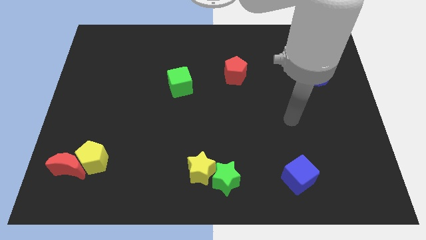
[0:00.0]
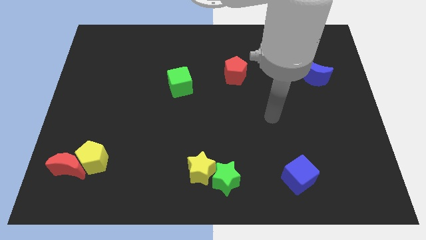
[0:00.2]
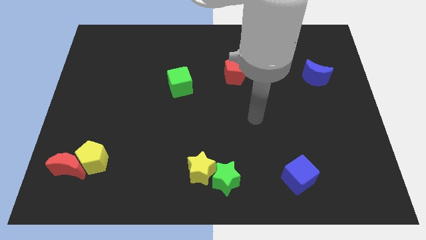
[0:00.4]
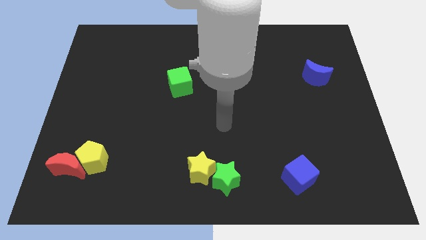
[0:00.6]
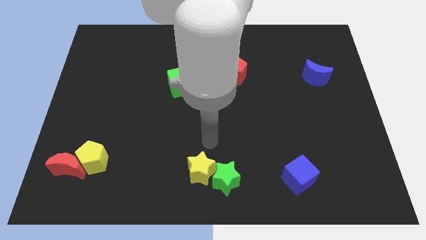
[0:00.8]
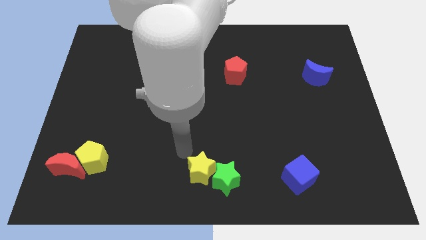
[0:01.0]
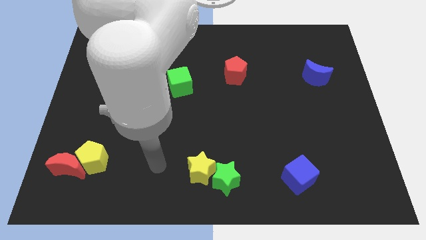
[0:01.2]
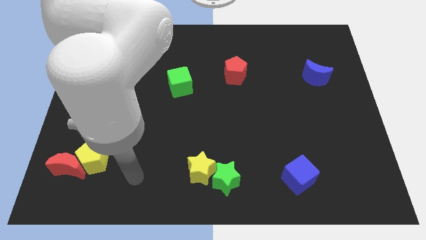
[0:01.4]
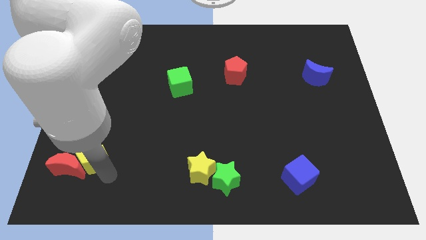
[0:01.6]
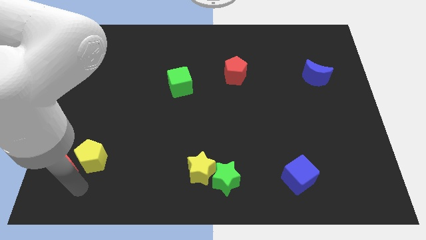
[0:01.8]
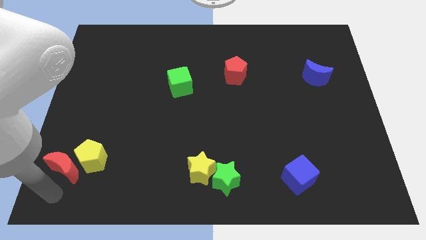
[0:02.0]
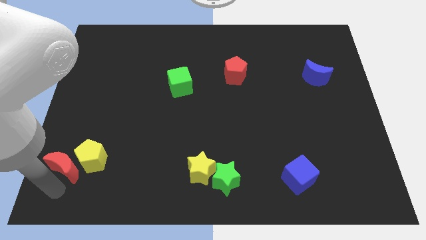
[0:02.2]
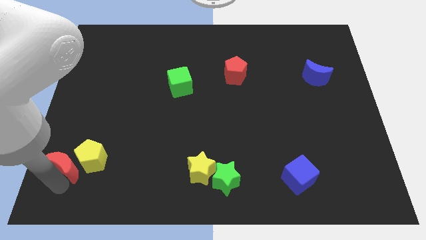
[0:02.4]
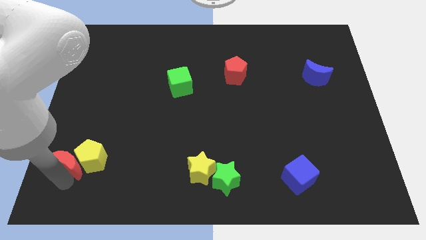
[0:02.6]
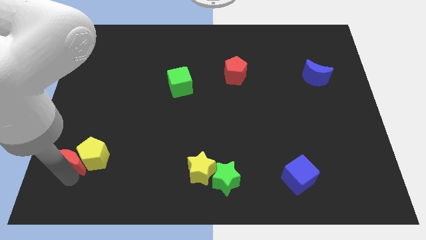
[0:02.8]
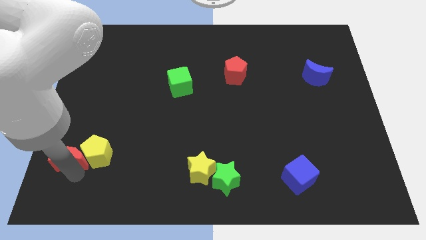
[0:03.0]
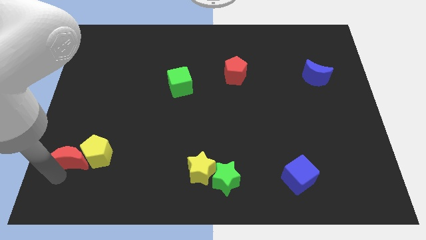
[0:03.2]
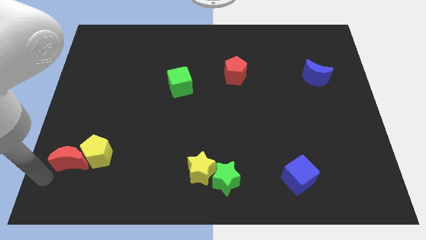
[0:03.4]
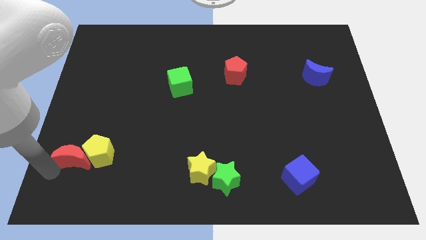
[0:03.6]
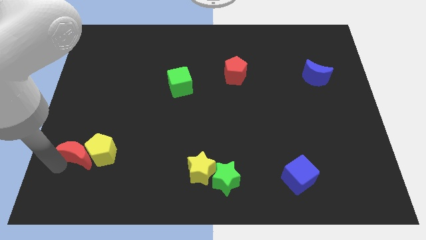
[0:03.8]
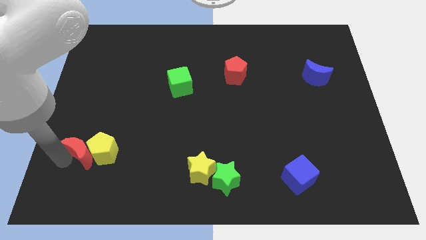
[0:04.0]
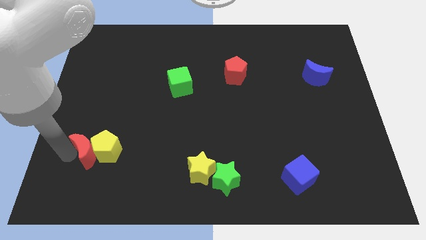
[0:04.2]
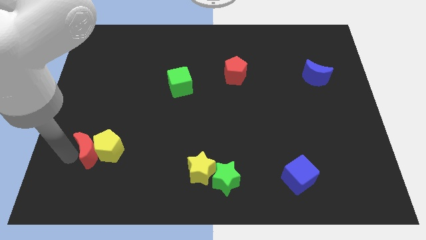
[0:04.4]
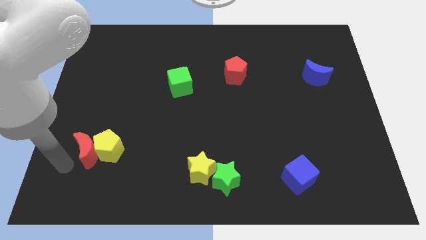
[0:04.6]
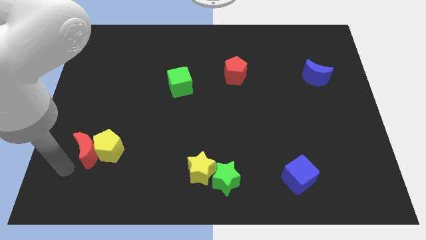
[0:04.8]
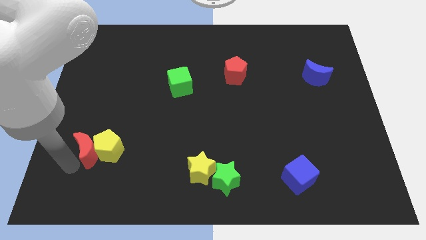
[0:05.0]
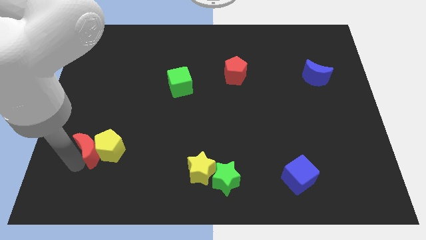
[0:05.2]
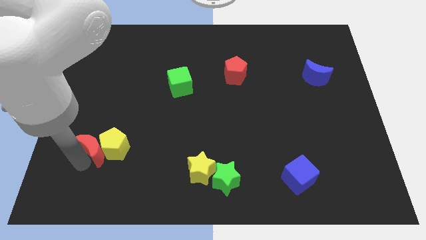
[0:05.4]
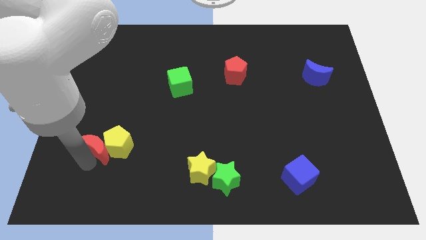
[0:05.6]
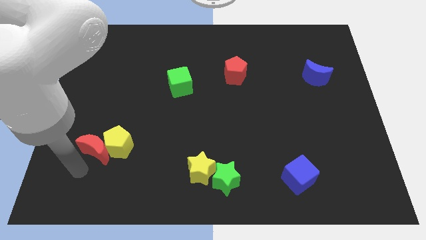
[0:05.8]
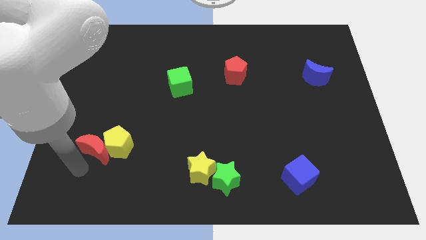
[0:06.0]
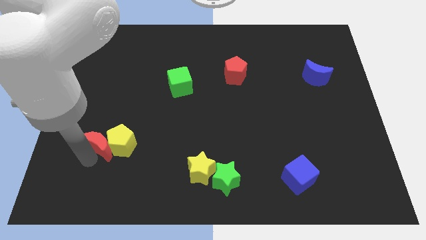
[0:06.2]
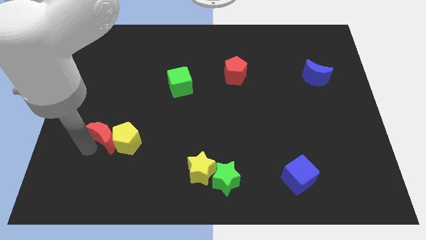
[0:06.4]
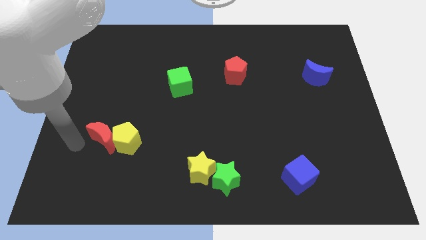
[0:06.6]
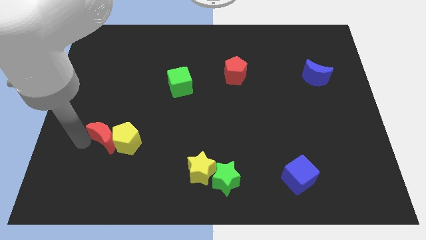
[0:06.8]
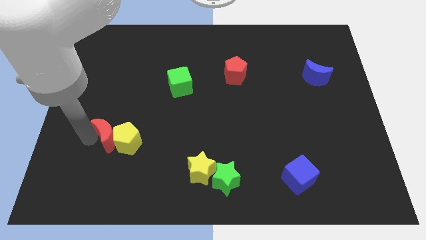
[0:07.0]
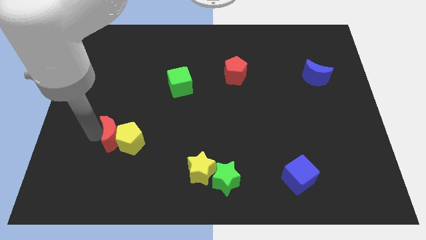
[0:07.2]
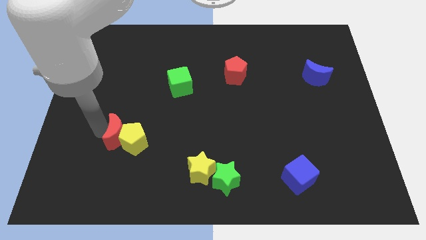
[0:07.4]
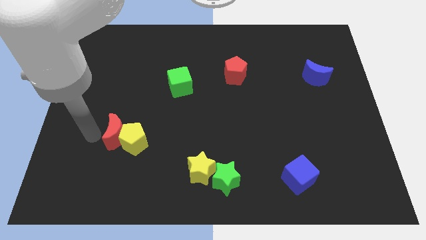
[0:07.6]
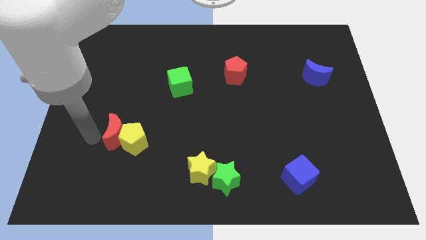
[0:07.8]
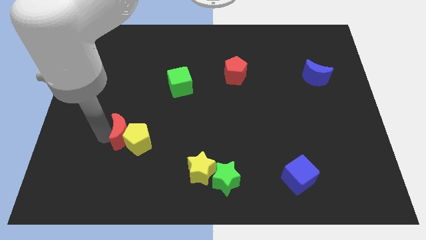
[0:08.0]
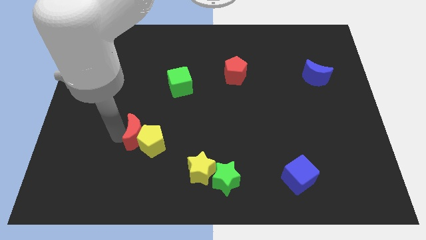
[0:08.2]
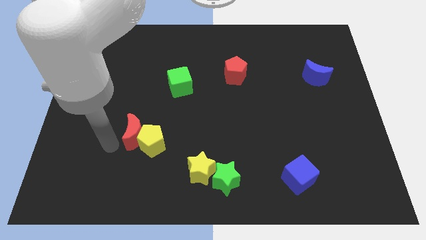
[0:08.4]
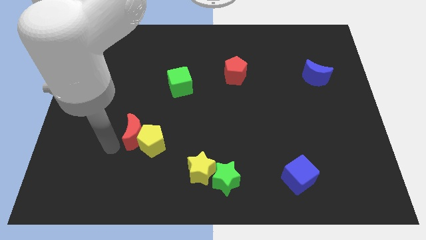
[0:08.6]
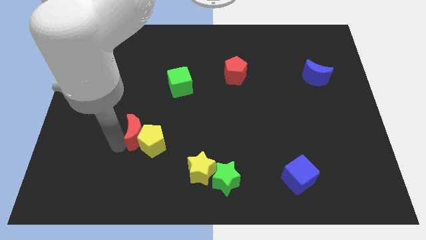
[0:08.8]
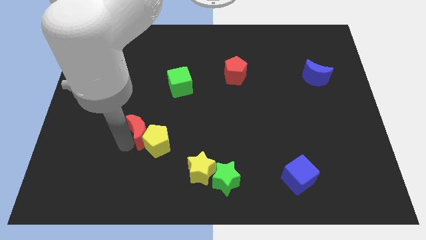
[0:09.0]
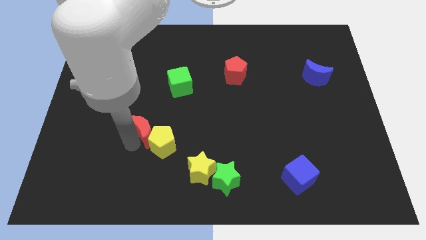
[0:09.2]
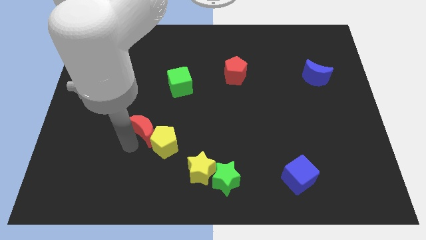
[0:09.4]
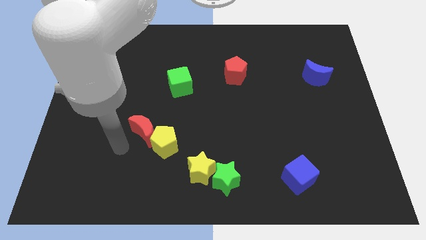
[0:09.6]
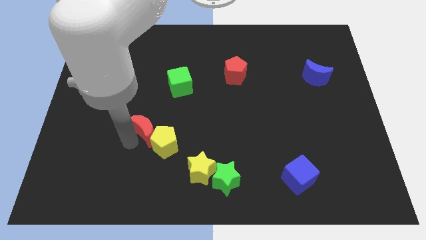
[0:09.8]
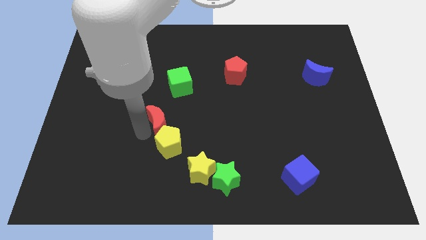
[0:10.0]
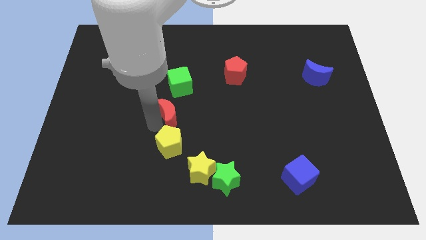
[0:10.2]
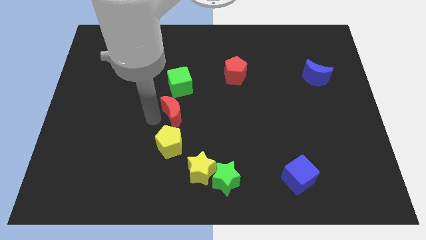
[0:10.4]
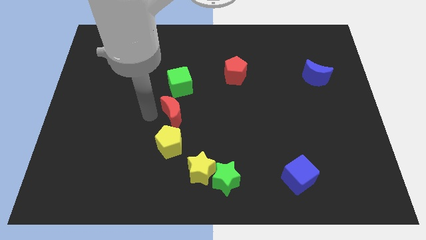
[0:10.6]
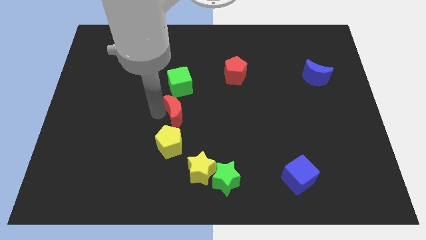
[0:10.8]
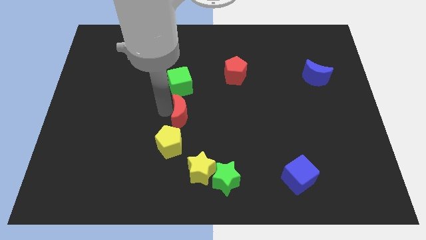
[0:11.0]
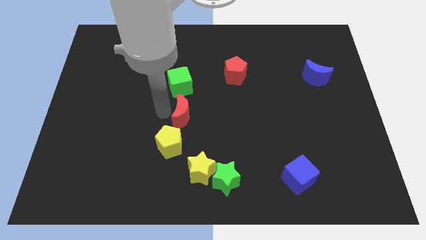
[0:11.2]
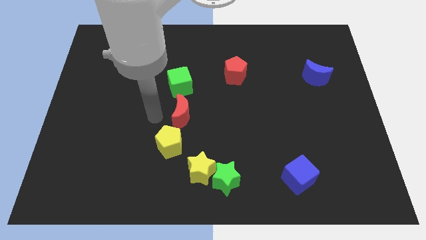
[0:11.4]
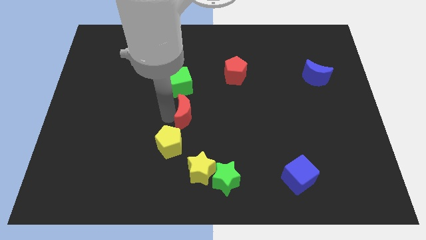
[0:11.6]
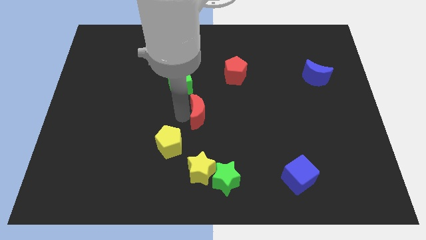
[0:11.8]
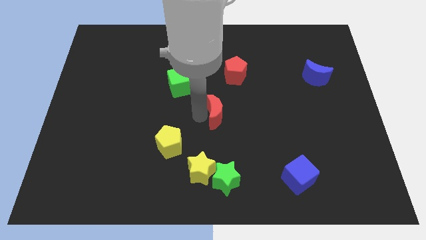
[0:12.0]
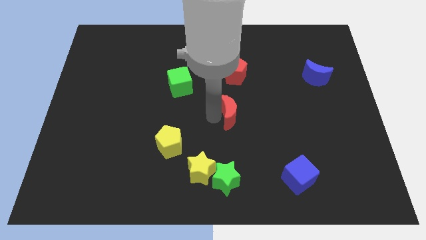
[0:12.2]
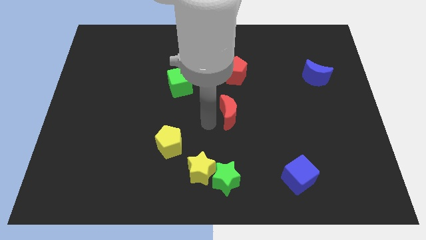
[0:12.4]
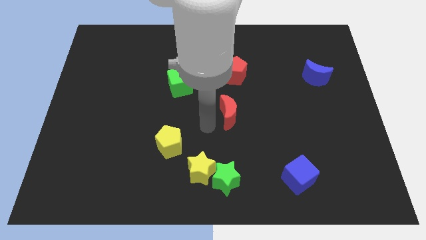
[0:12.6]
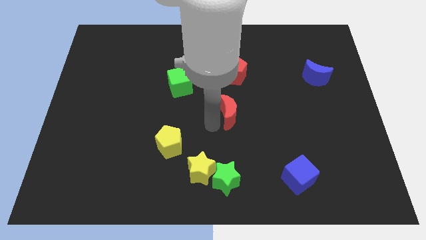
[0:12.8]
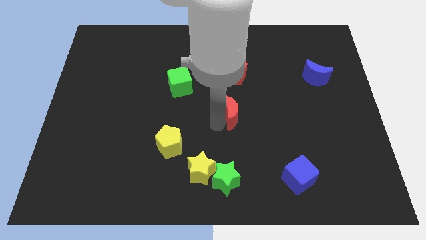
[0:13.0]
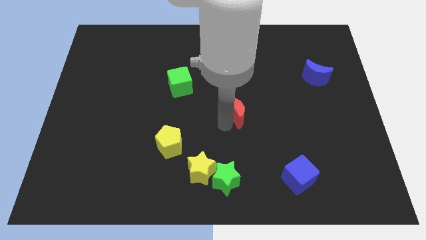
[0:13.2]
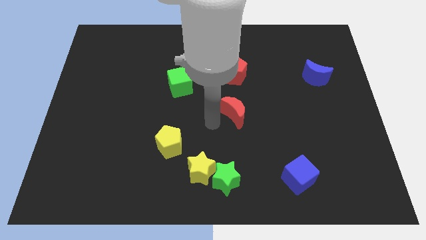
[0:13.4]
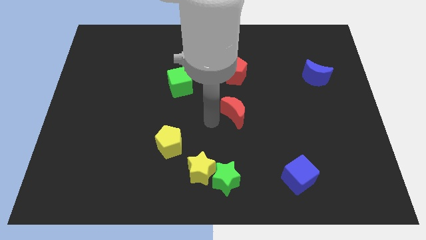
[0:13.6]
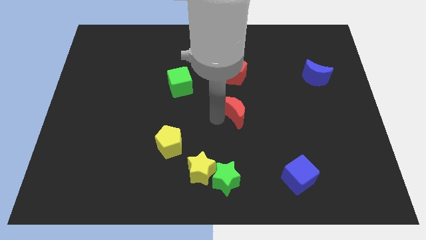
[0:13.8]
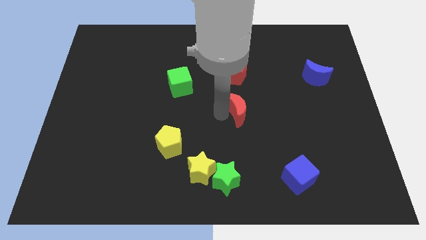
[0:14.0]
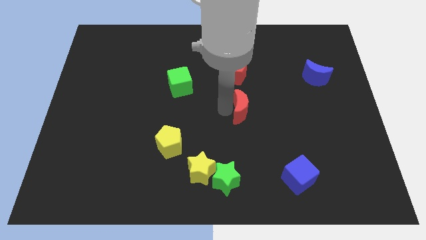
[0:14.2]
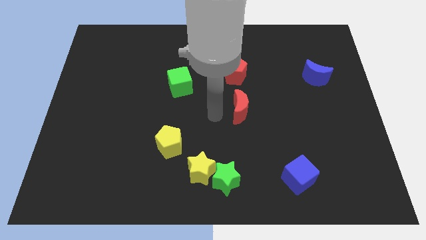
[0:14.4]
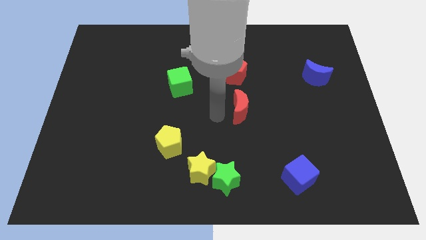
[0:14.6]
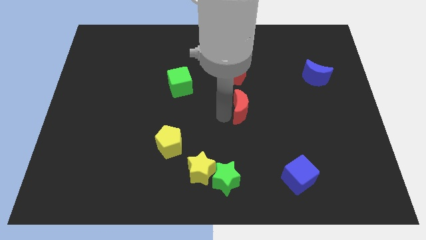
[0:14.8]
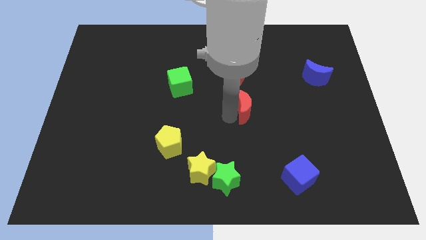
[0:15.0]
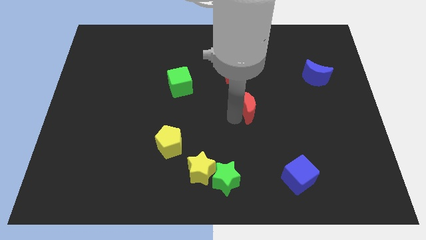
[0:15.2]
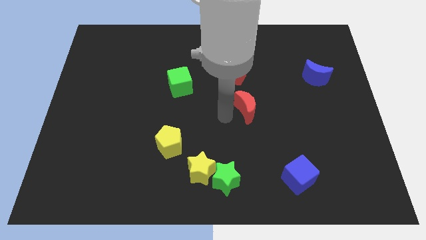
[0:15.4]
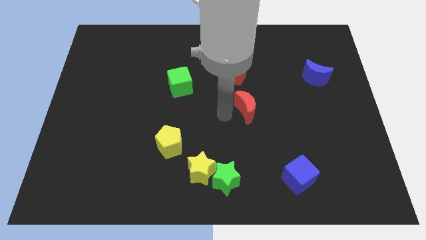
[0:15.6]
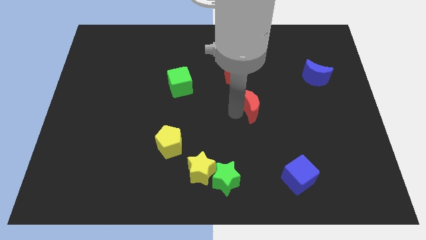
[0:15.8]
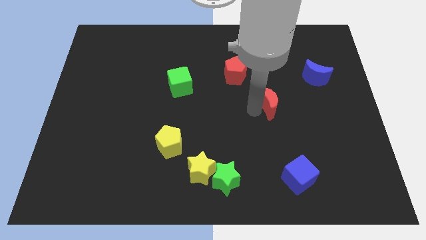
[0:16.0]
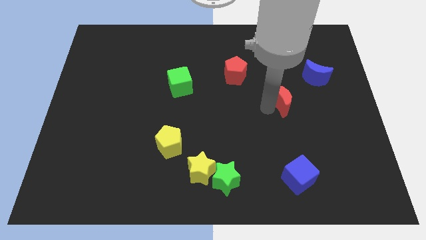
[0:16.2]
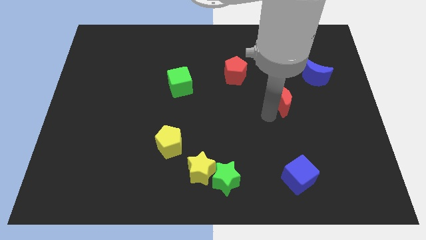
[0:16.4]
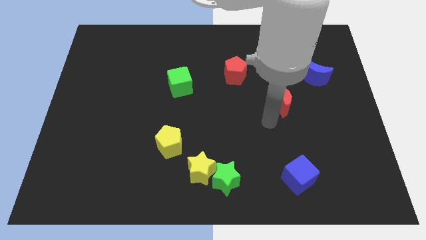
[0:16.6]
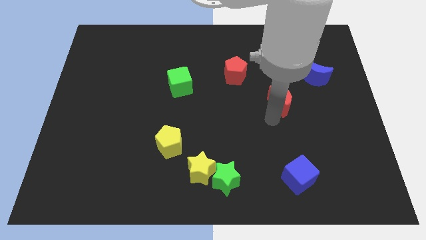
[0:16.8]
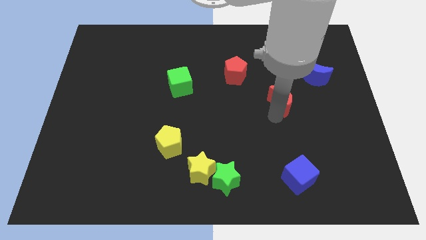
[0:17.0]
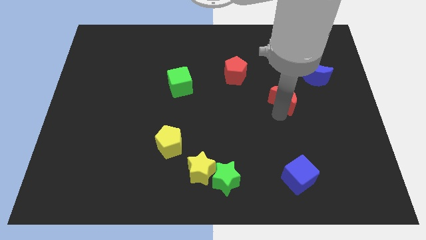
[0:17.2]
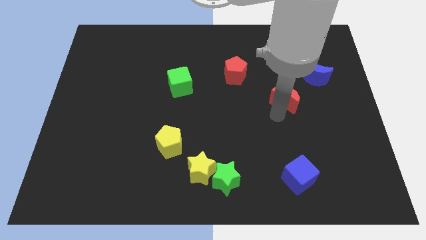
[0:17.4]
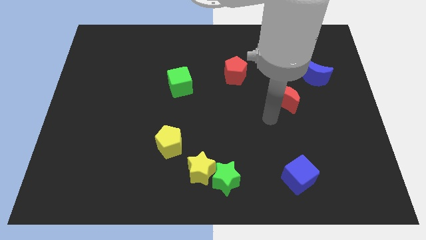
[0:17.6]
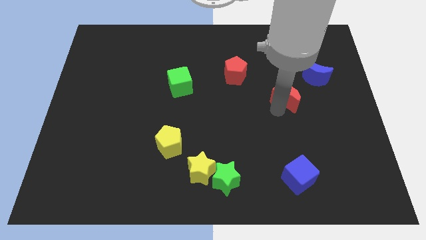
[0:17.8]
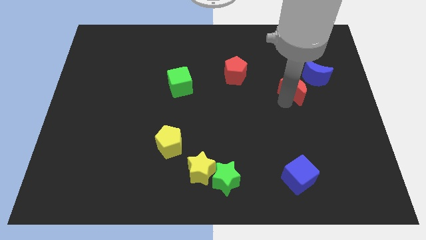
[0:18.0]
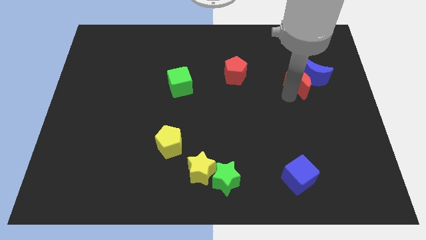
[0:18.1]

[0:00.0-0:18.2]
push the red moon close to the blue moon
